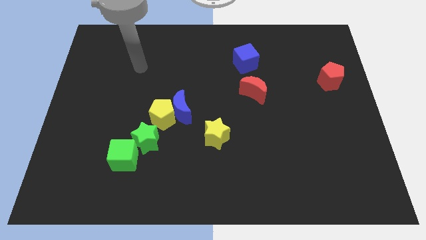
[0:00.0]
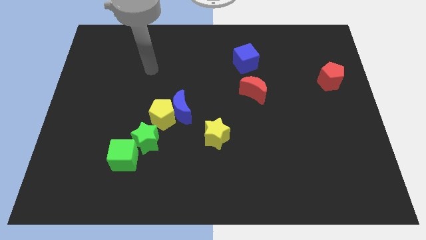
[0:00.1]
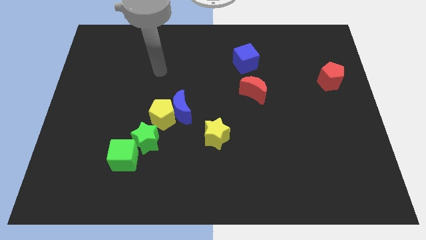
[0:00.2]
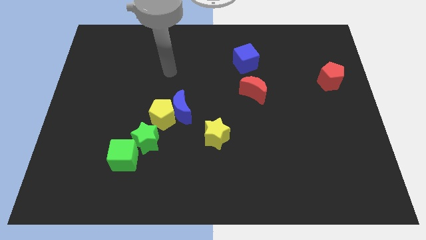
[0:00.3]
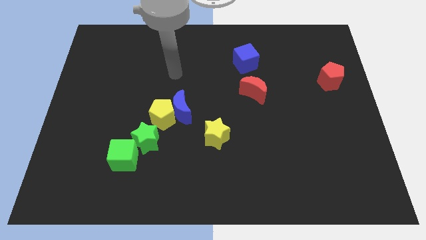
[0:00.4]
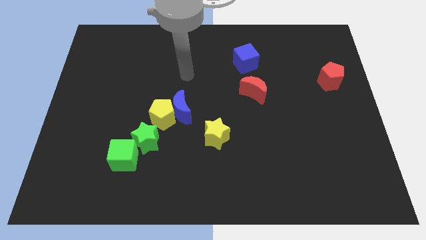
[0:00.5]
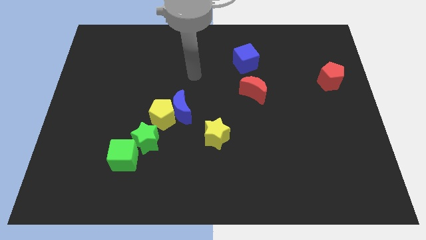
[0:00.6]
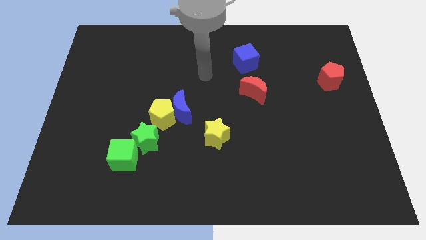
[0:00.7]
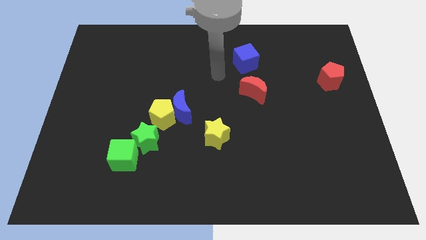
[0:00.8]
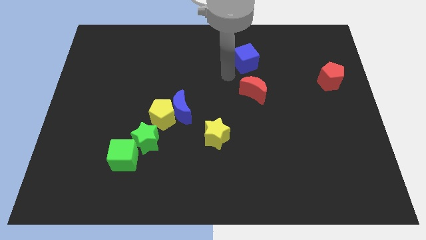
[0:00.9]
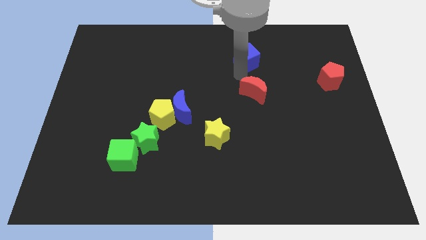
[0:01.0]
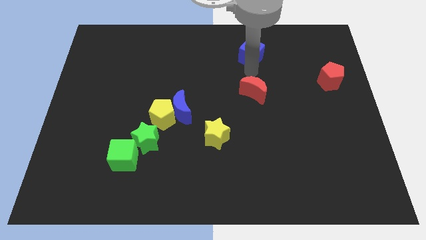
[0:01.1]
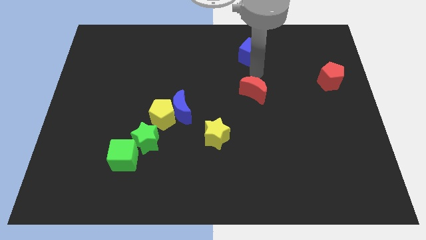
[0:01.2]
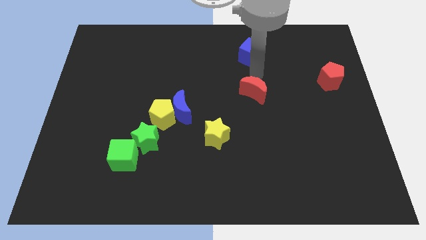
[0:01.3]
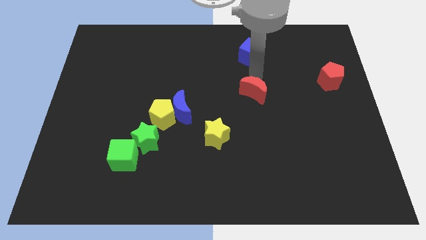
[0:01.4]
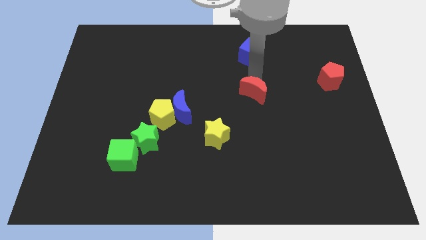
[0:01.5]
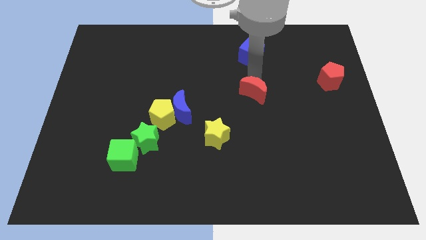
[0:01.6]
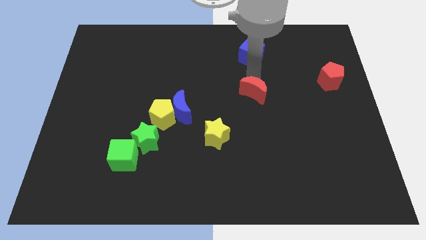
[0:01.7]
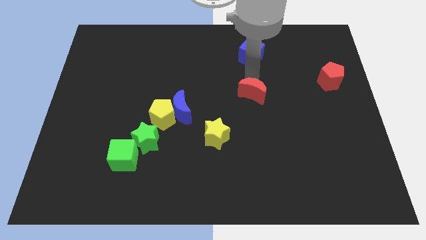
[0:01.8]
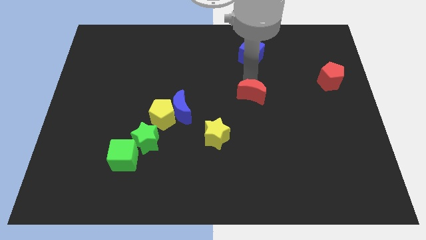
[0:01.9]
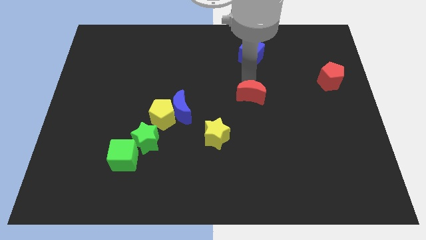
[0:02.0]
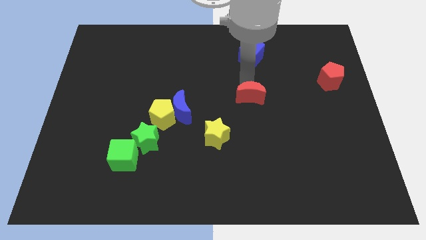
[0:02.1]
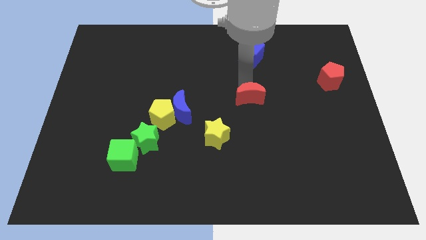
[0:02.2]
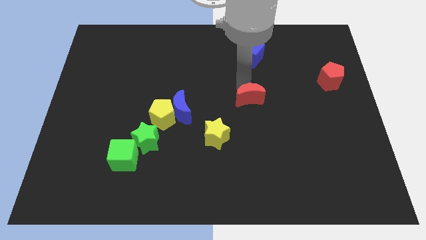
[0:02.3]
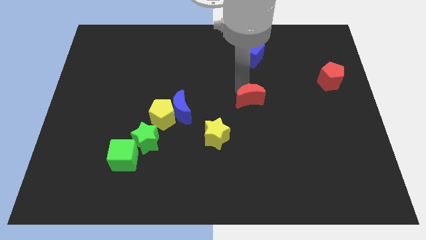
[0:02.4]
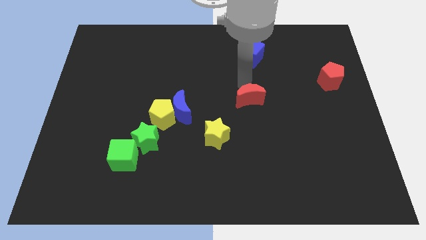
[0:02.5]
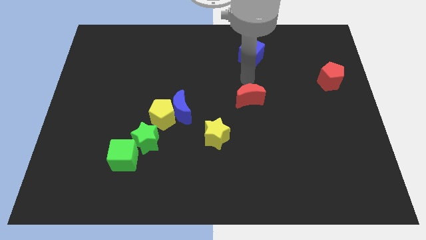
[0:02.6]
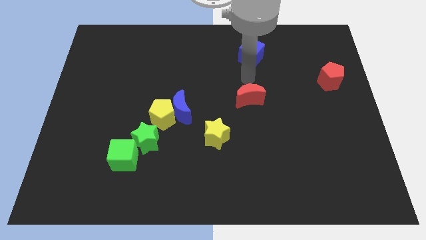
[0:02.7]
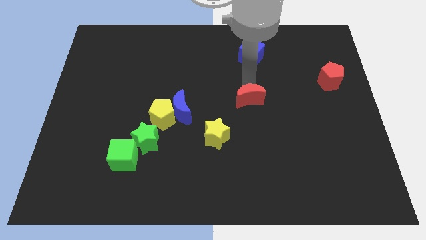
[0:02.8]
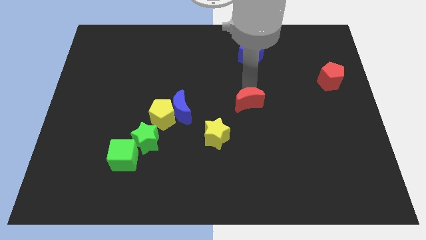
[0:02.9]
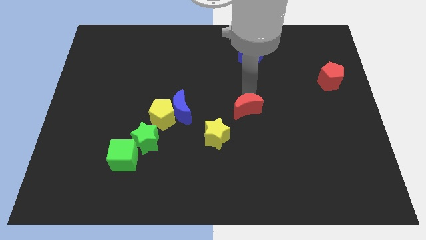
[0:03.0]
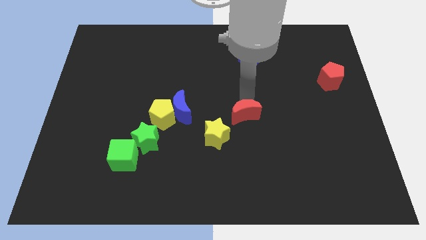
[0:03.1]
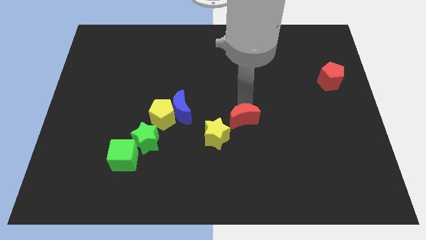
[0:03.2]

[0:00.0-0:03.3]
slightly slide the red moon downwards

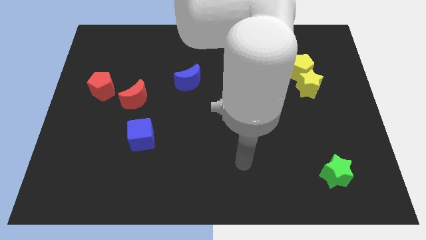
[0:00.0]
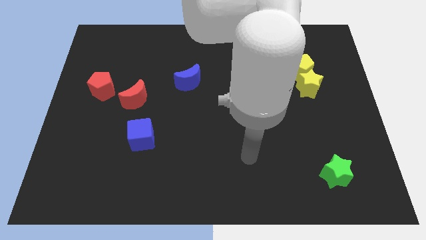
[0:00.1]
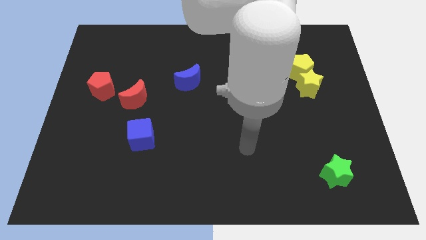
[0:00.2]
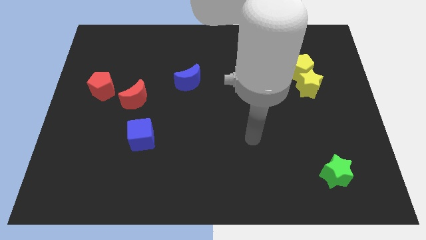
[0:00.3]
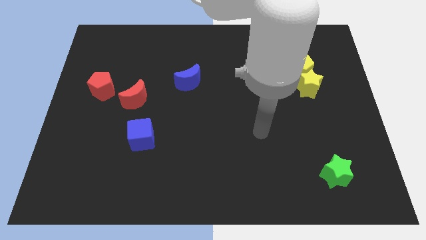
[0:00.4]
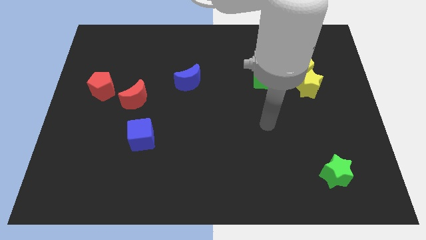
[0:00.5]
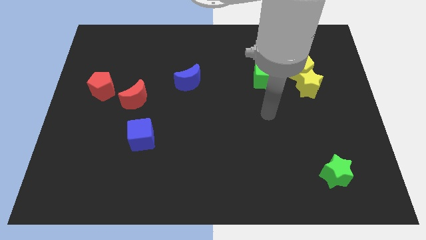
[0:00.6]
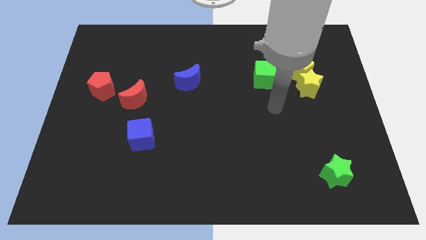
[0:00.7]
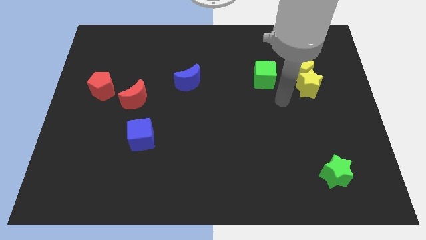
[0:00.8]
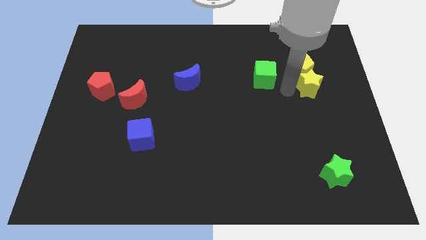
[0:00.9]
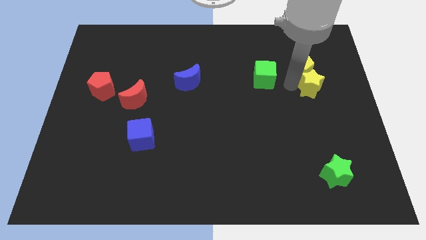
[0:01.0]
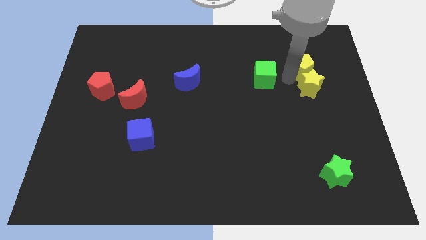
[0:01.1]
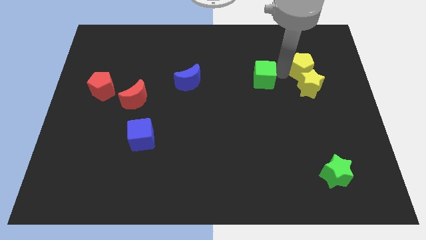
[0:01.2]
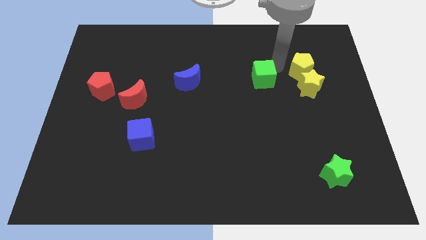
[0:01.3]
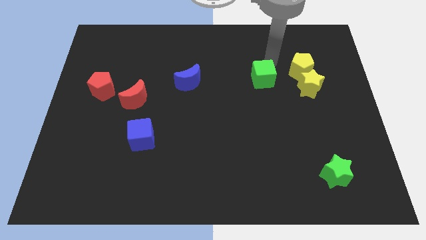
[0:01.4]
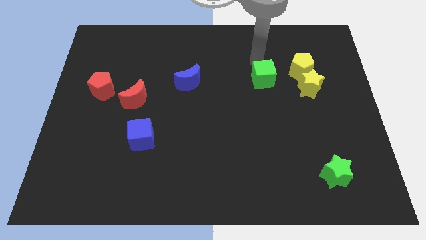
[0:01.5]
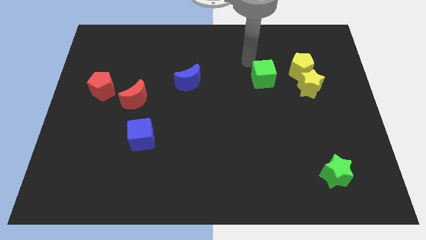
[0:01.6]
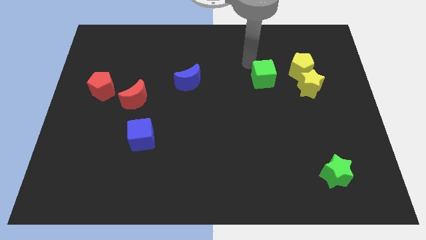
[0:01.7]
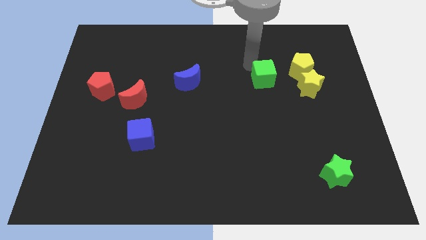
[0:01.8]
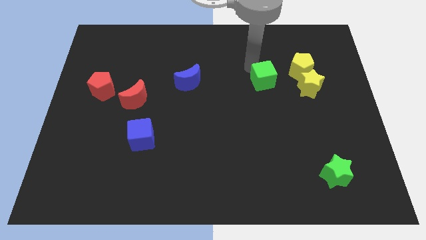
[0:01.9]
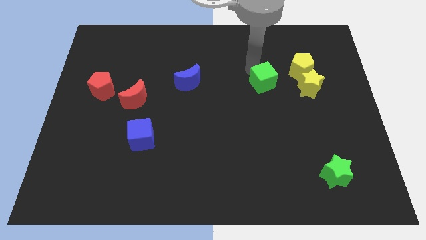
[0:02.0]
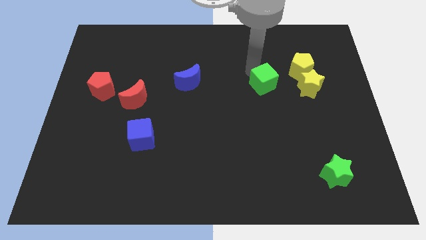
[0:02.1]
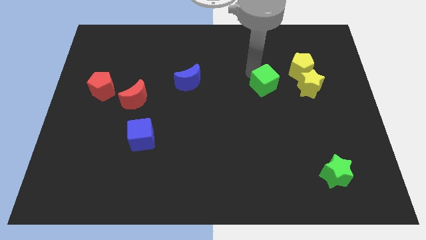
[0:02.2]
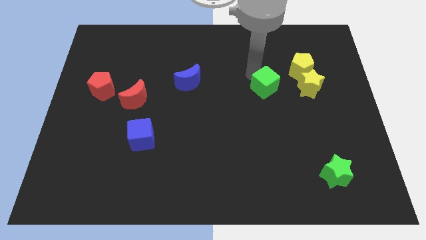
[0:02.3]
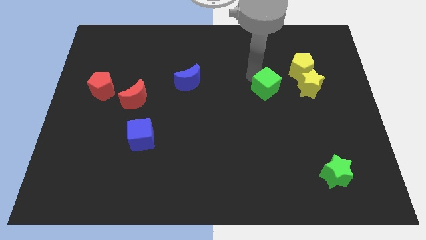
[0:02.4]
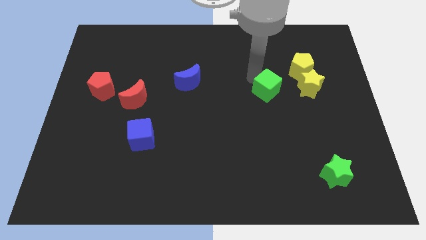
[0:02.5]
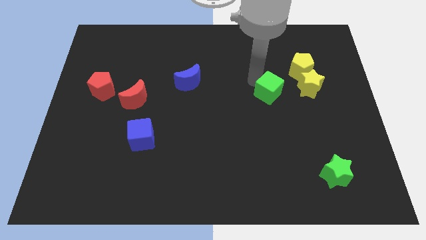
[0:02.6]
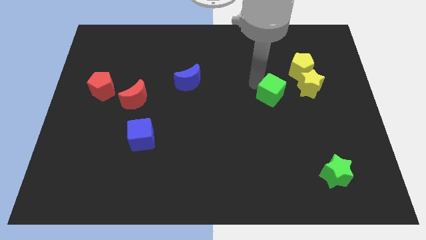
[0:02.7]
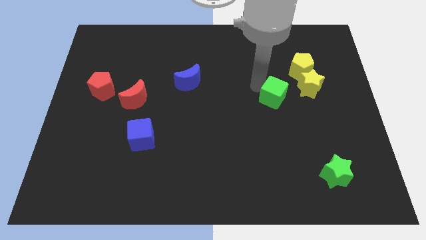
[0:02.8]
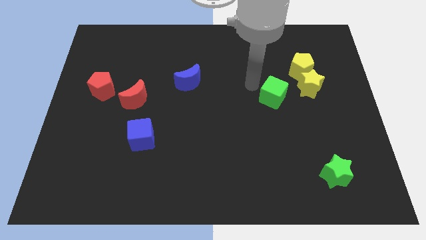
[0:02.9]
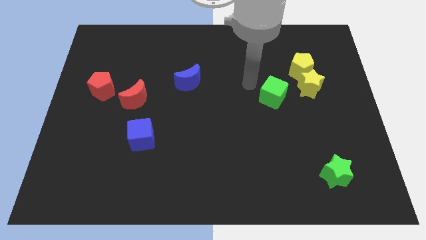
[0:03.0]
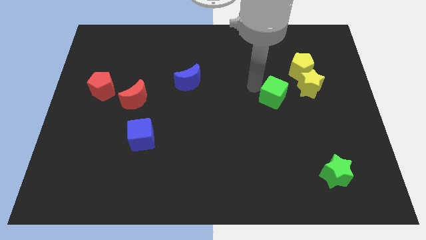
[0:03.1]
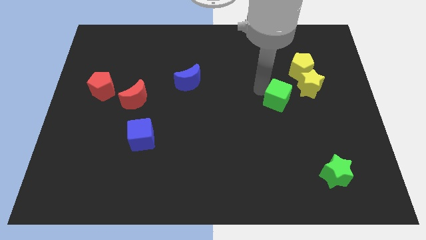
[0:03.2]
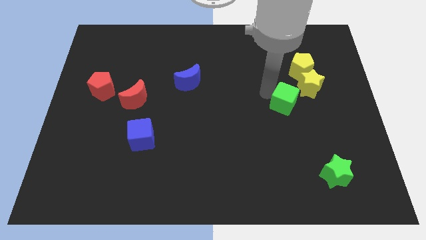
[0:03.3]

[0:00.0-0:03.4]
slightly move the green cube down and to the right diagonally

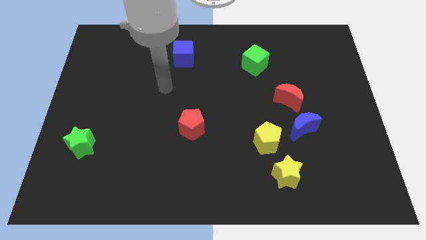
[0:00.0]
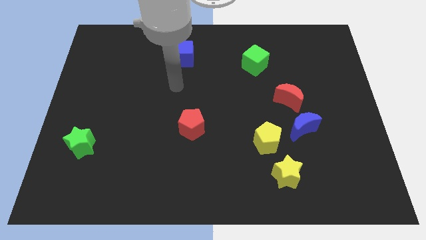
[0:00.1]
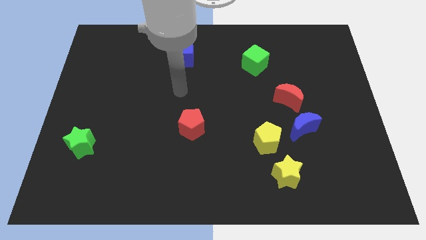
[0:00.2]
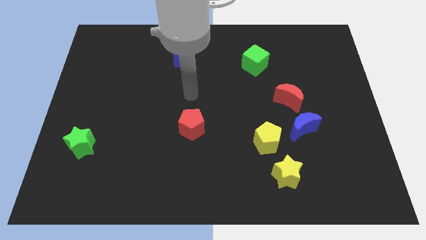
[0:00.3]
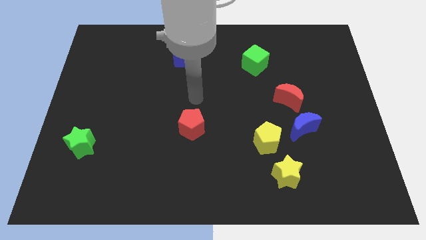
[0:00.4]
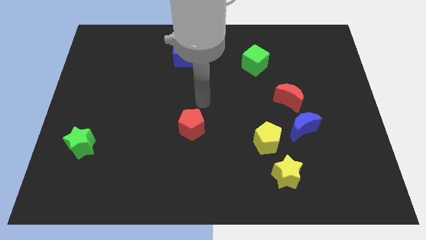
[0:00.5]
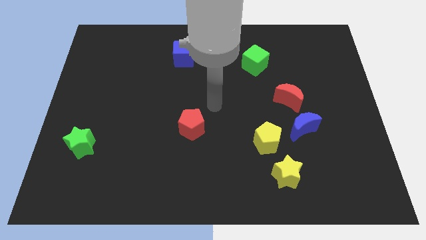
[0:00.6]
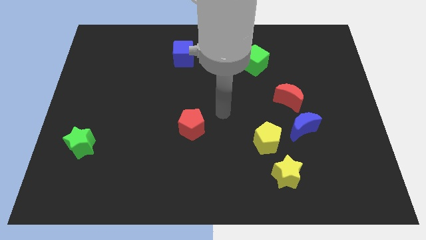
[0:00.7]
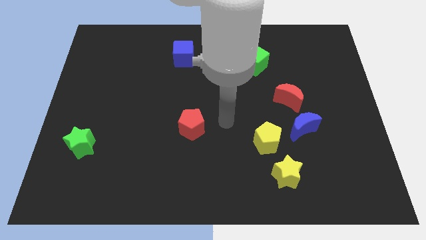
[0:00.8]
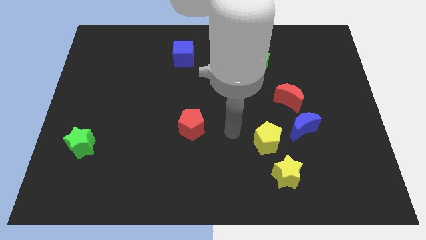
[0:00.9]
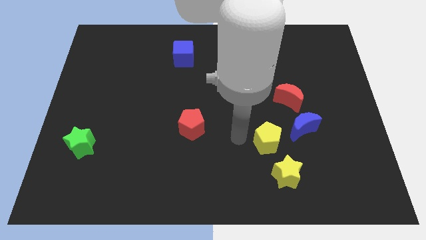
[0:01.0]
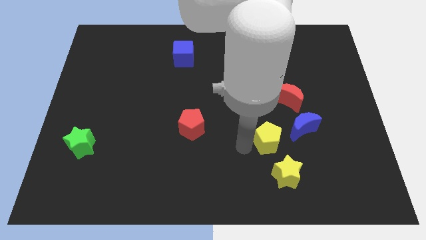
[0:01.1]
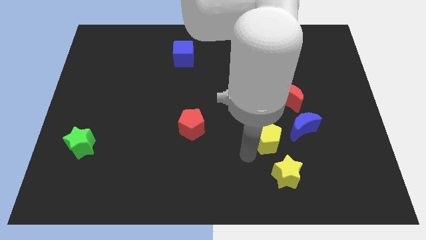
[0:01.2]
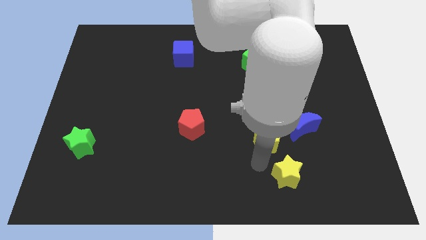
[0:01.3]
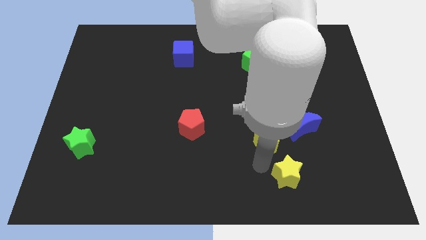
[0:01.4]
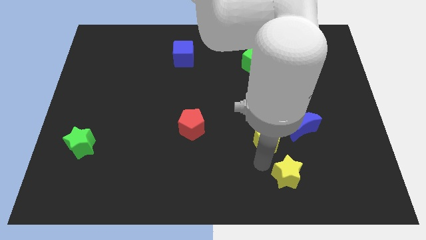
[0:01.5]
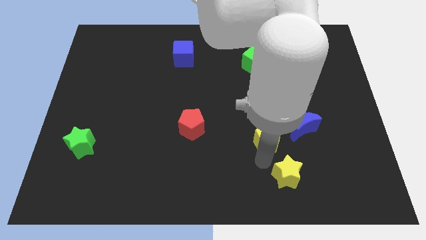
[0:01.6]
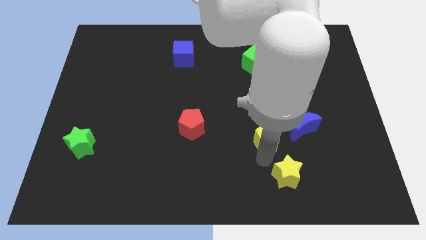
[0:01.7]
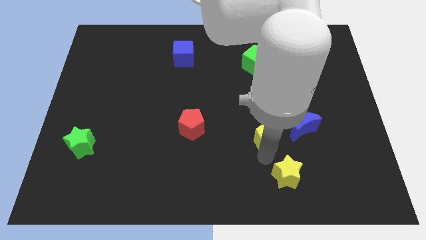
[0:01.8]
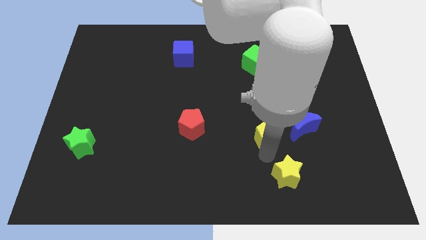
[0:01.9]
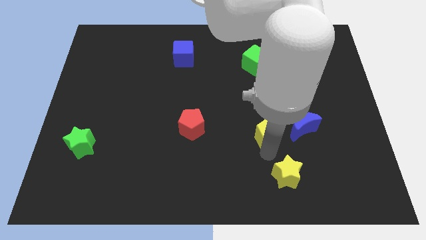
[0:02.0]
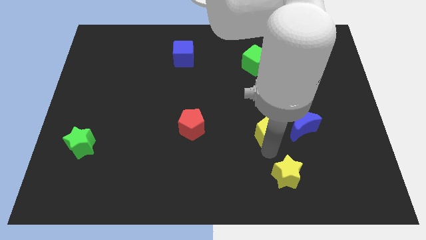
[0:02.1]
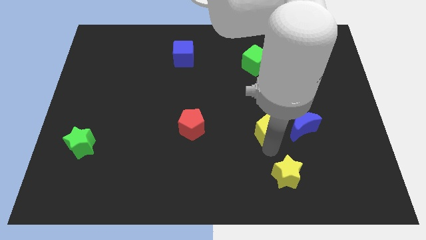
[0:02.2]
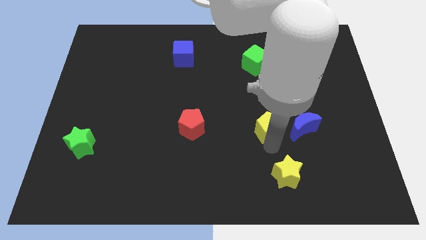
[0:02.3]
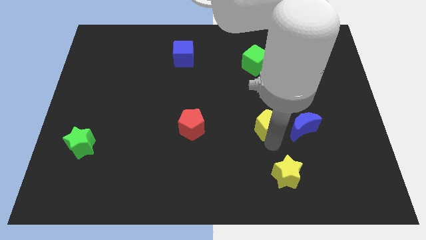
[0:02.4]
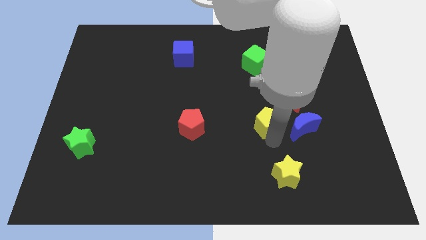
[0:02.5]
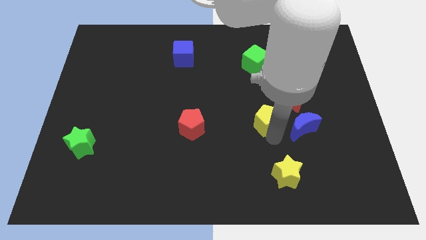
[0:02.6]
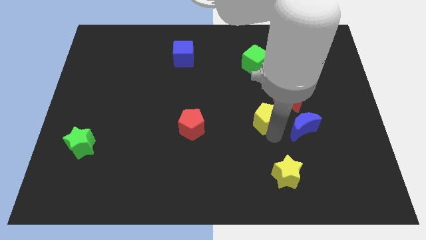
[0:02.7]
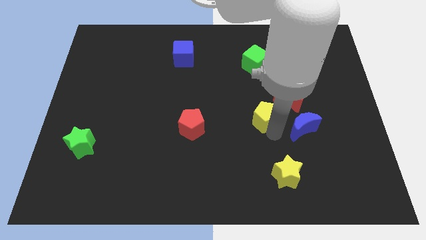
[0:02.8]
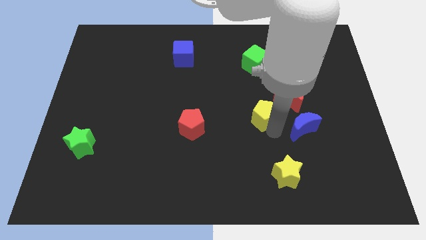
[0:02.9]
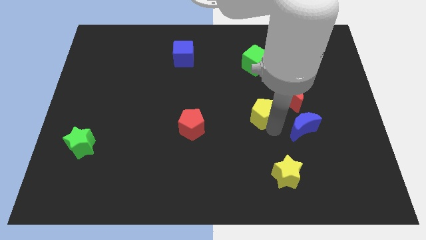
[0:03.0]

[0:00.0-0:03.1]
slightly push the yellow pentagon upwards
